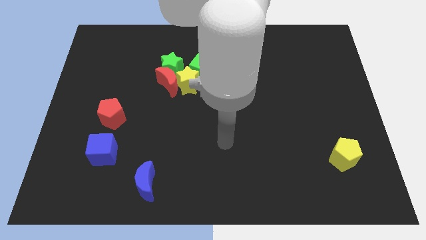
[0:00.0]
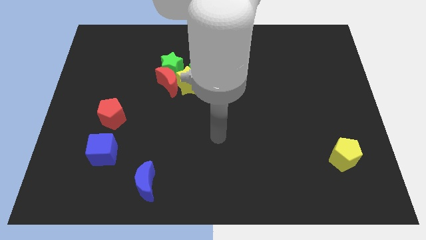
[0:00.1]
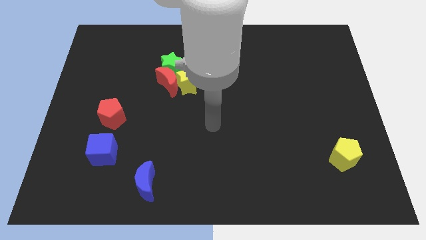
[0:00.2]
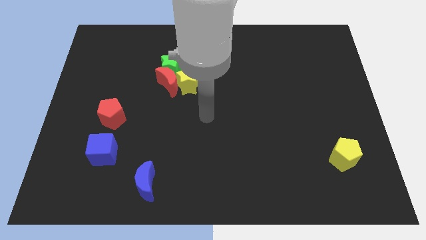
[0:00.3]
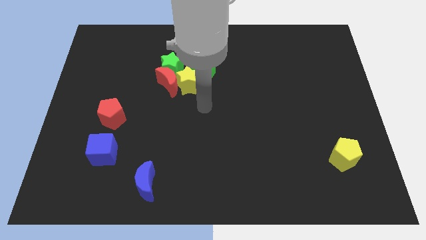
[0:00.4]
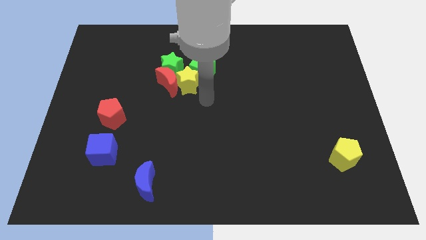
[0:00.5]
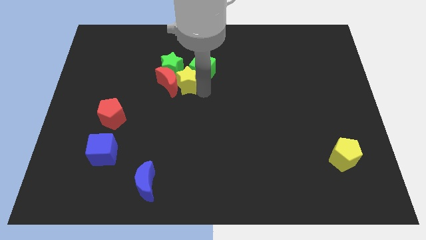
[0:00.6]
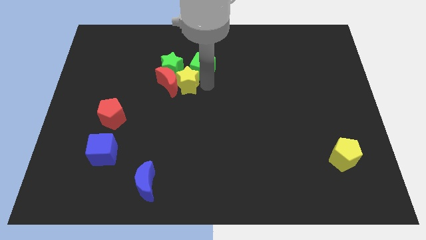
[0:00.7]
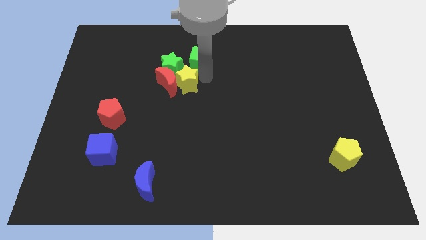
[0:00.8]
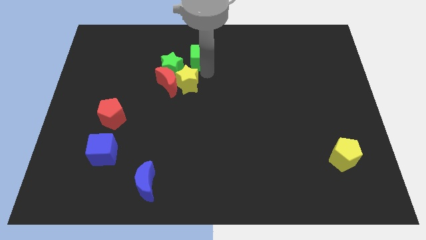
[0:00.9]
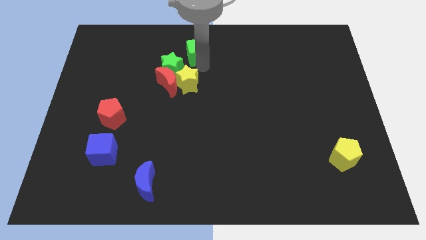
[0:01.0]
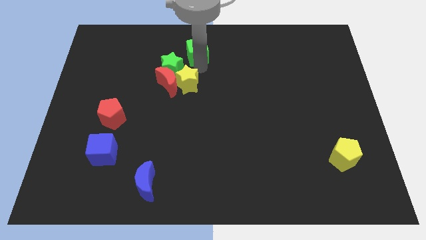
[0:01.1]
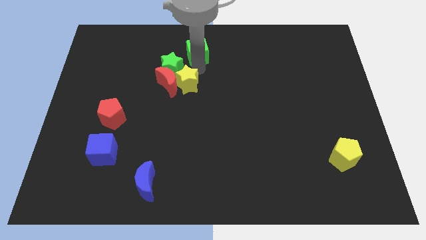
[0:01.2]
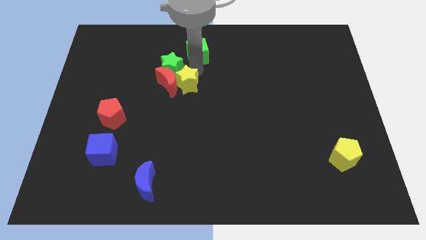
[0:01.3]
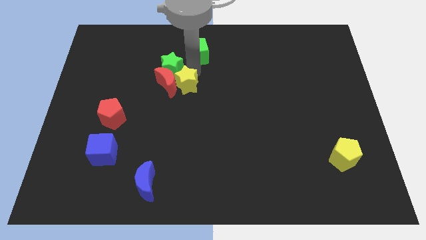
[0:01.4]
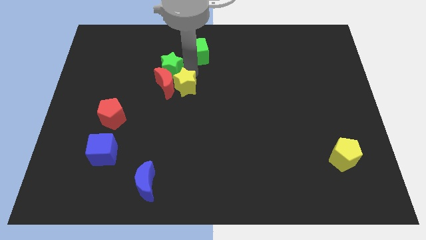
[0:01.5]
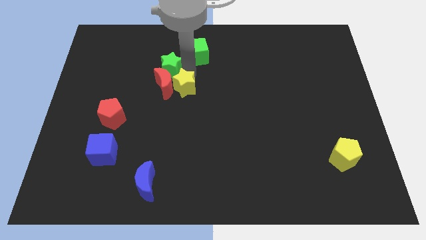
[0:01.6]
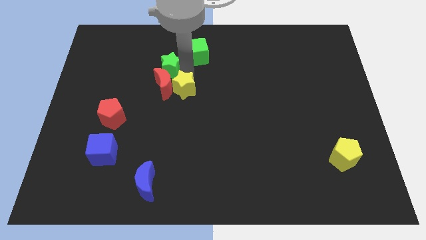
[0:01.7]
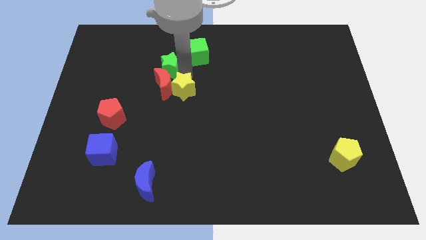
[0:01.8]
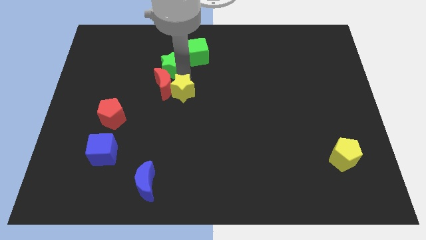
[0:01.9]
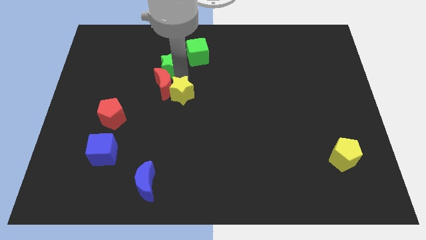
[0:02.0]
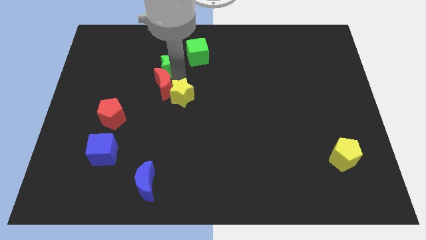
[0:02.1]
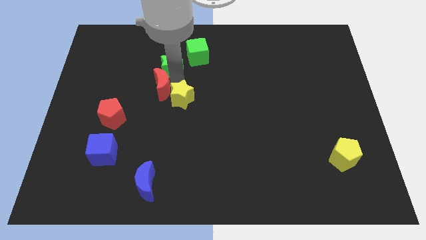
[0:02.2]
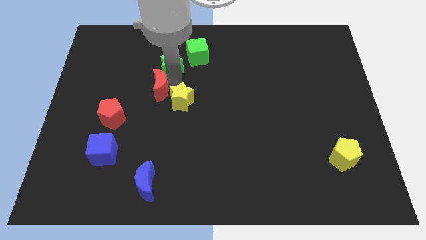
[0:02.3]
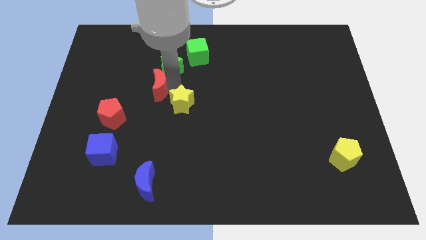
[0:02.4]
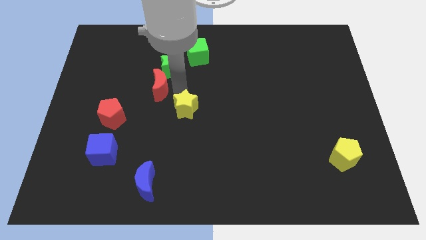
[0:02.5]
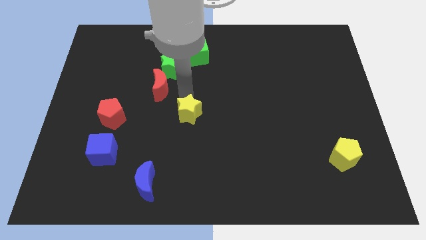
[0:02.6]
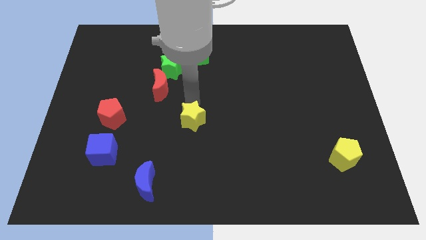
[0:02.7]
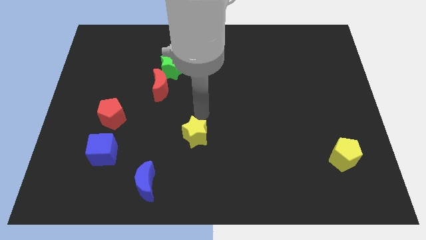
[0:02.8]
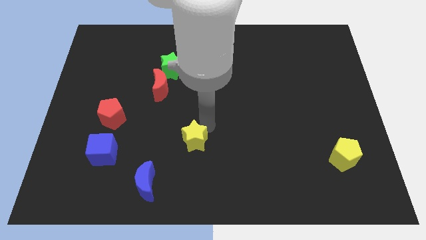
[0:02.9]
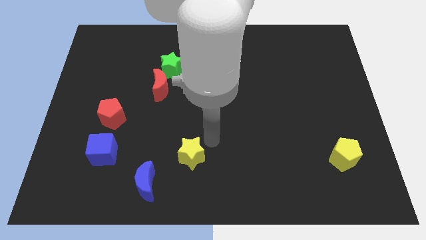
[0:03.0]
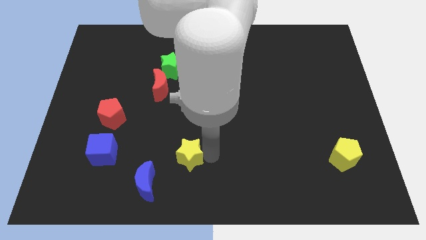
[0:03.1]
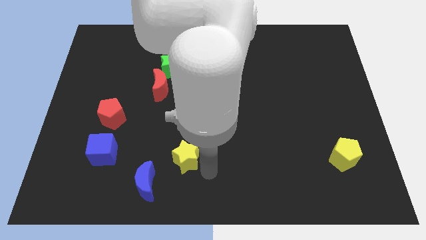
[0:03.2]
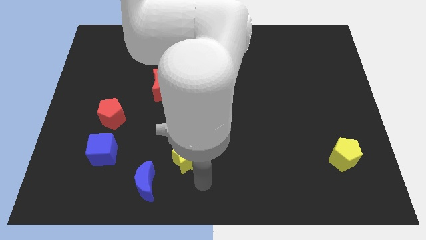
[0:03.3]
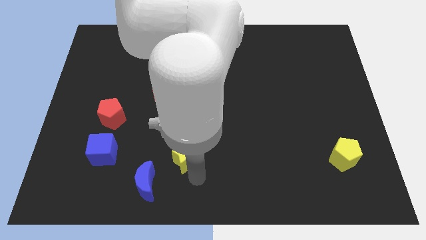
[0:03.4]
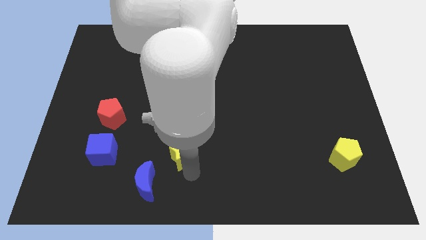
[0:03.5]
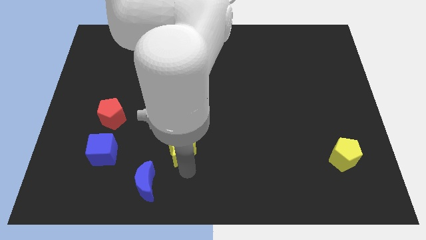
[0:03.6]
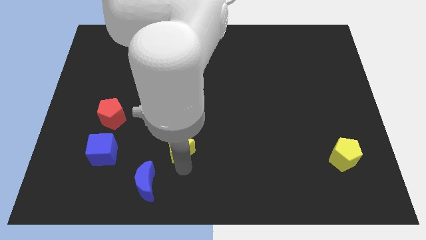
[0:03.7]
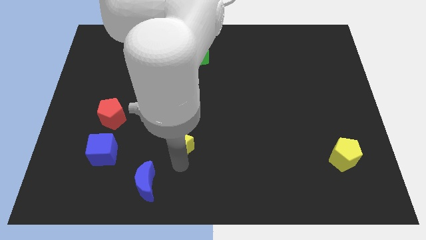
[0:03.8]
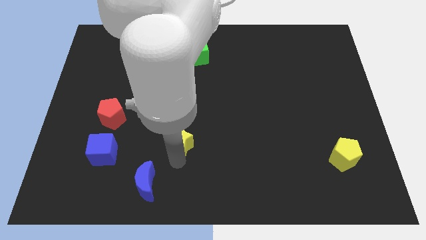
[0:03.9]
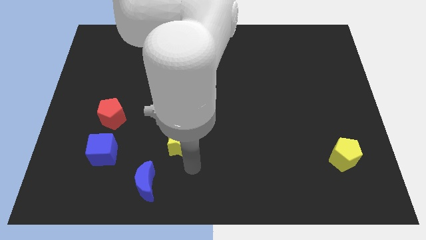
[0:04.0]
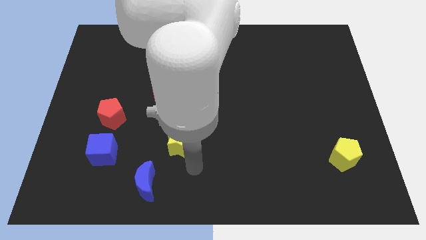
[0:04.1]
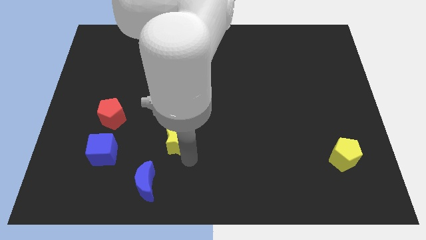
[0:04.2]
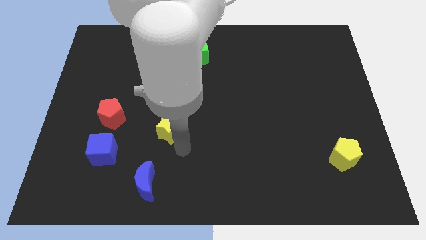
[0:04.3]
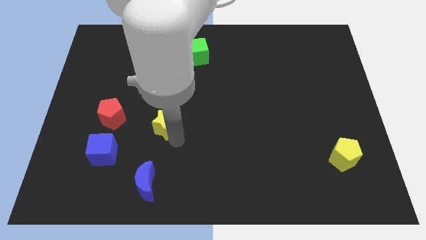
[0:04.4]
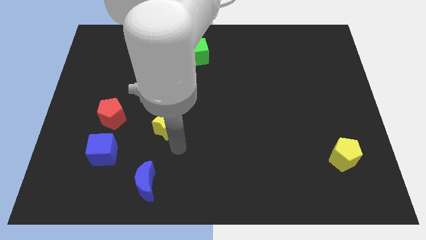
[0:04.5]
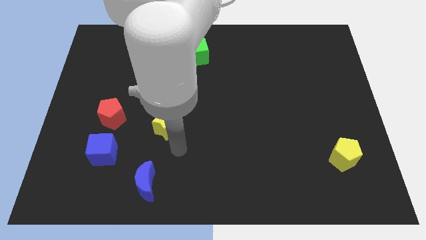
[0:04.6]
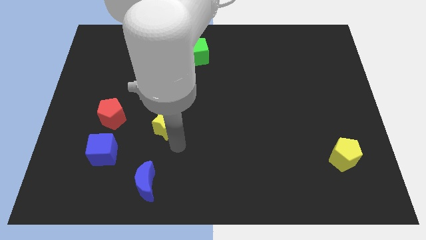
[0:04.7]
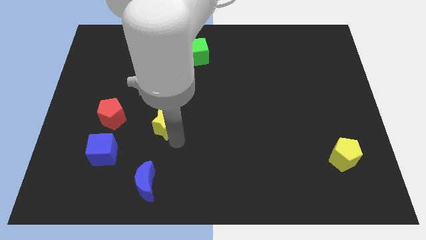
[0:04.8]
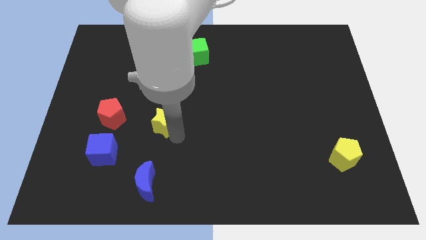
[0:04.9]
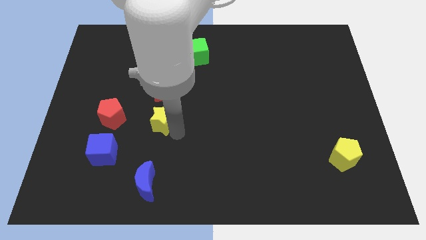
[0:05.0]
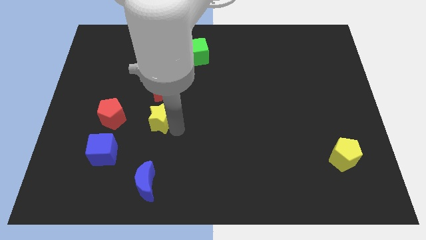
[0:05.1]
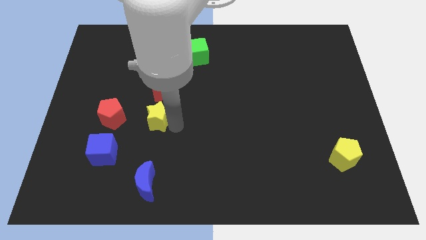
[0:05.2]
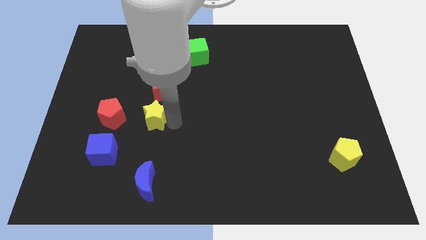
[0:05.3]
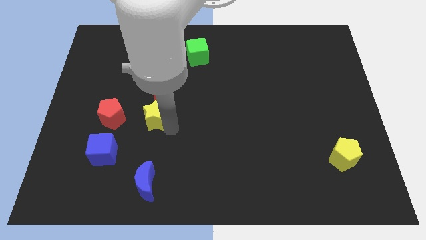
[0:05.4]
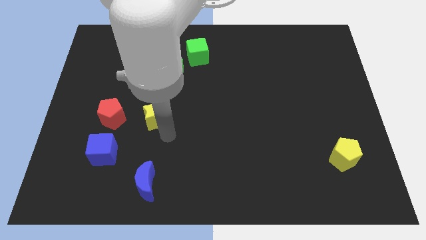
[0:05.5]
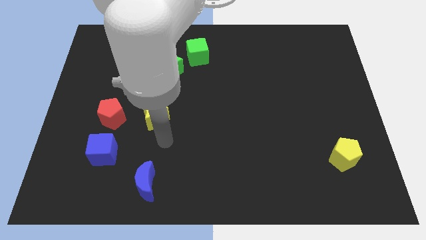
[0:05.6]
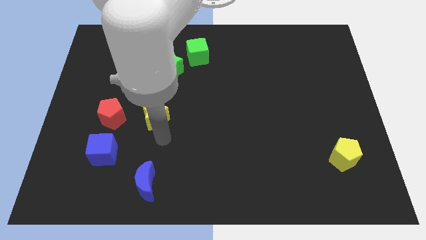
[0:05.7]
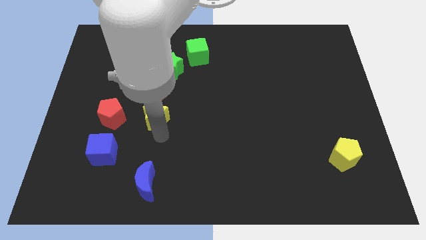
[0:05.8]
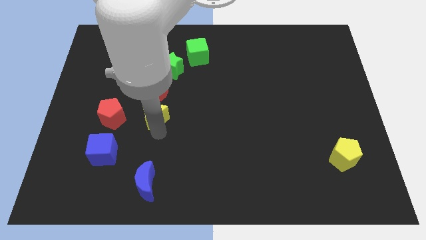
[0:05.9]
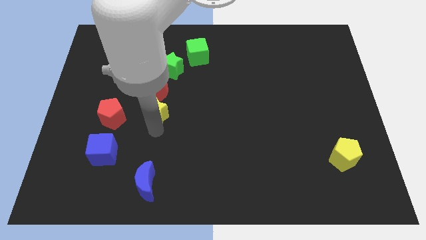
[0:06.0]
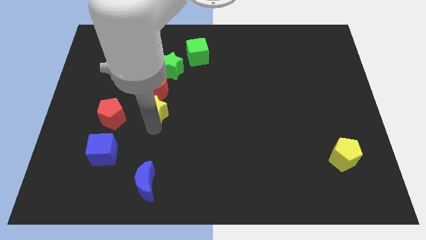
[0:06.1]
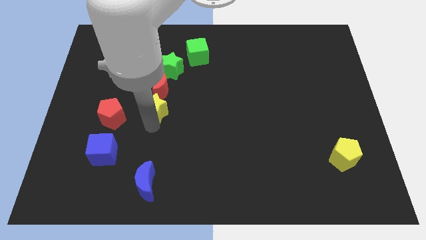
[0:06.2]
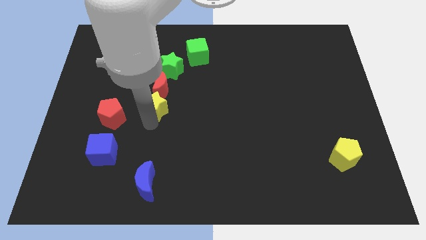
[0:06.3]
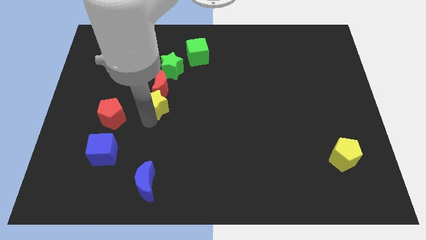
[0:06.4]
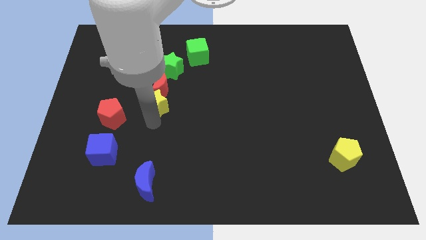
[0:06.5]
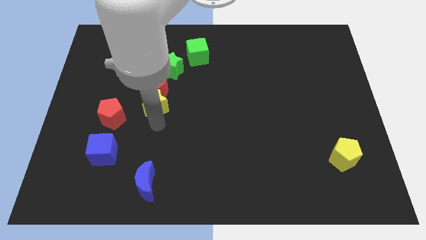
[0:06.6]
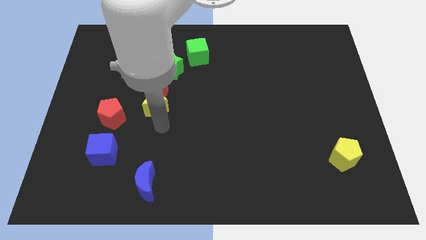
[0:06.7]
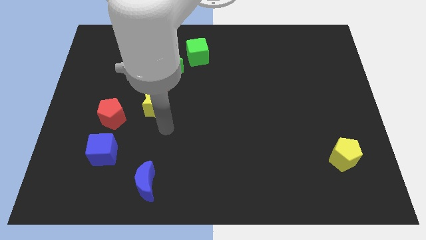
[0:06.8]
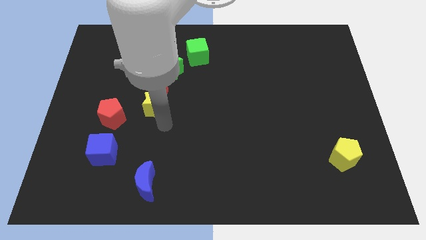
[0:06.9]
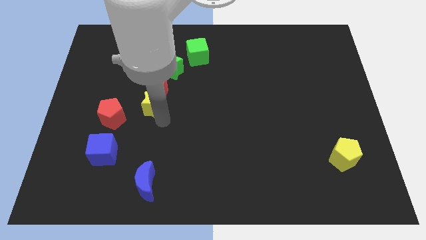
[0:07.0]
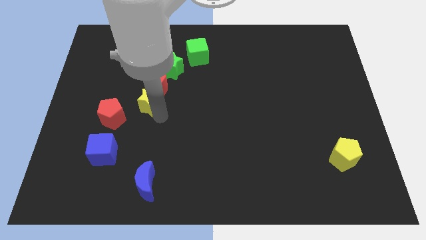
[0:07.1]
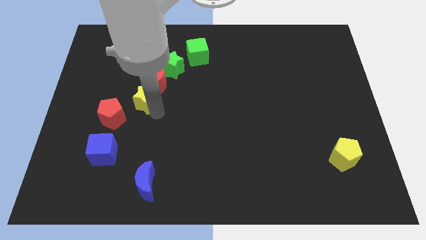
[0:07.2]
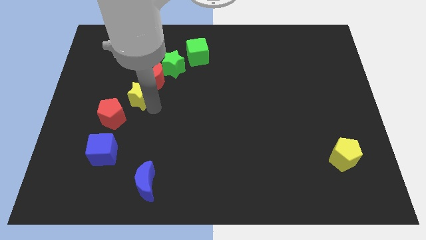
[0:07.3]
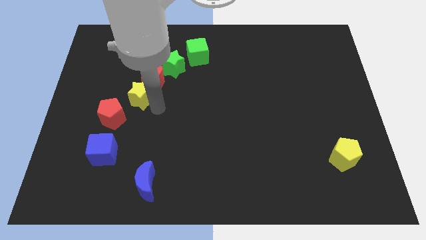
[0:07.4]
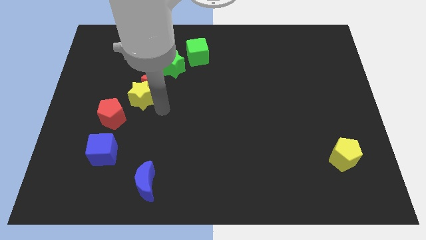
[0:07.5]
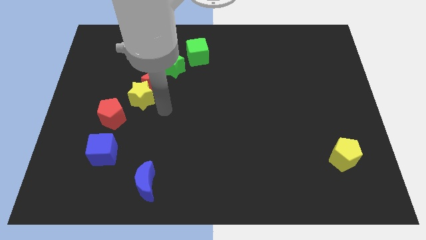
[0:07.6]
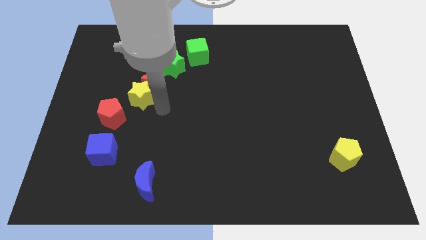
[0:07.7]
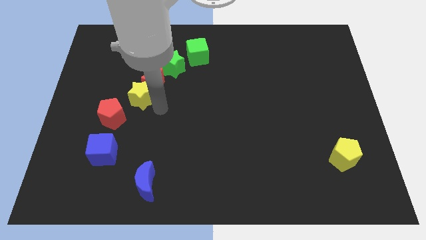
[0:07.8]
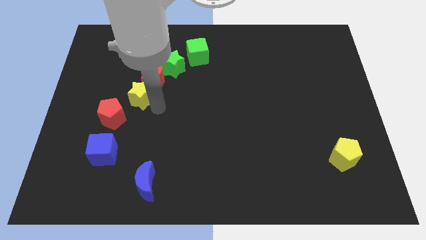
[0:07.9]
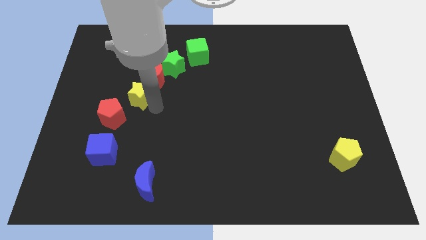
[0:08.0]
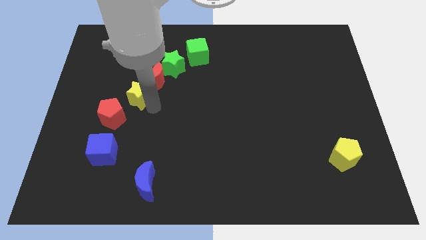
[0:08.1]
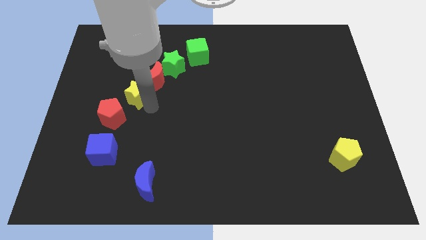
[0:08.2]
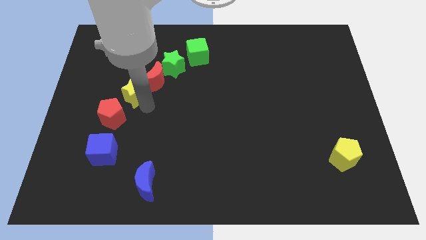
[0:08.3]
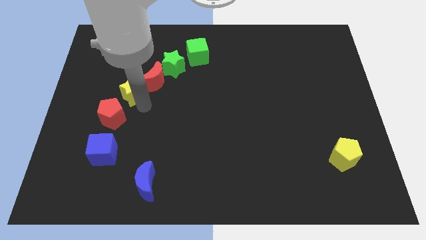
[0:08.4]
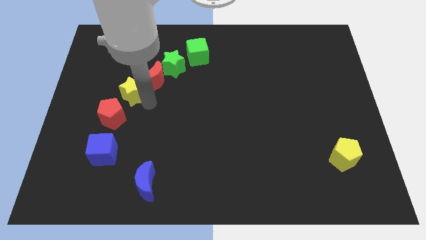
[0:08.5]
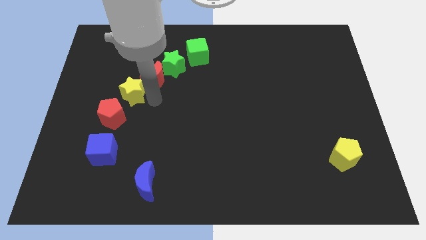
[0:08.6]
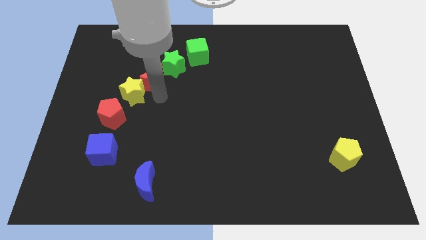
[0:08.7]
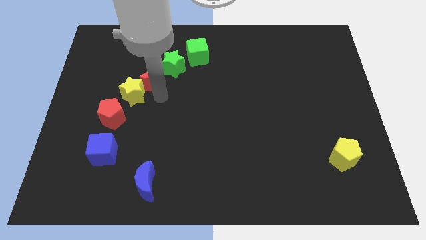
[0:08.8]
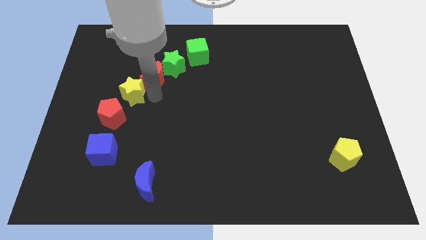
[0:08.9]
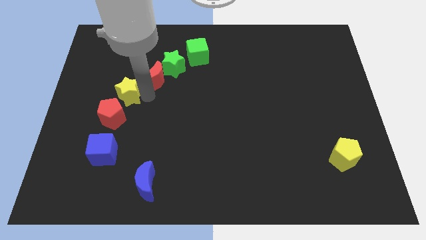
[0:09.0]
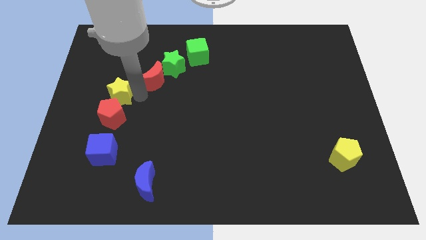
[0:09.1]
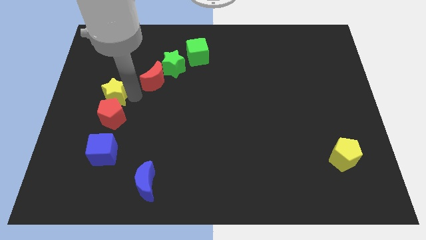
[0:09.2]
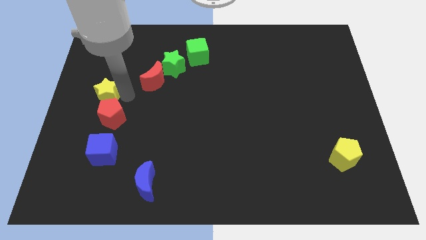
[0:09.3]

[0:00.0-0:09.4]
push the yellow star to the left side of the board
